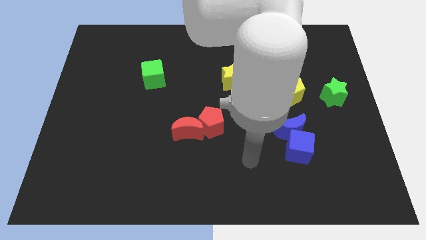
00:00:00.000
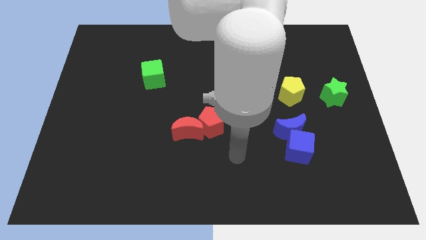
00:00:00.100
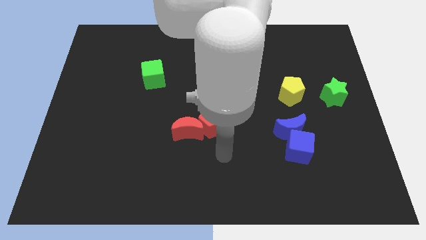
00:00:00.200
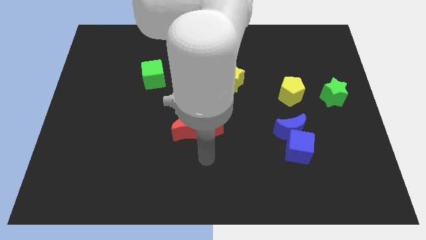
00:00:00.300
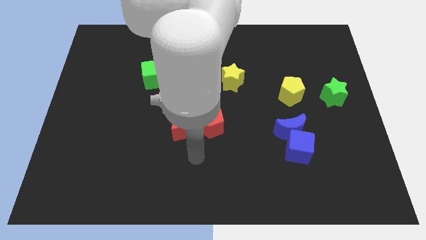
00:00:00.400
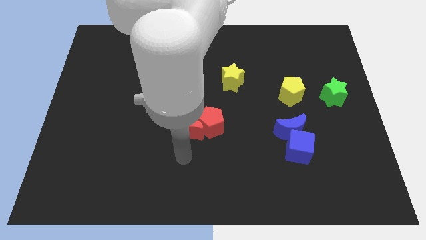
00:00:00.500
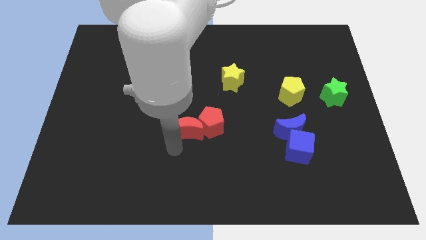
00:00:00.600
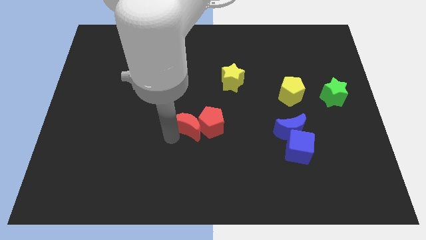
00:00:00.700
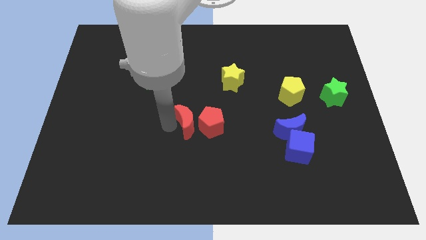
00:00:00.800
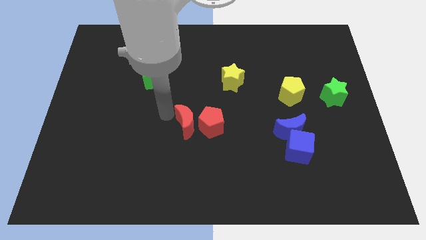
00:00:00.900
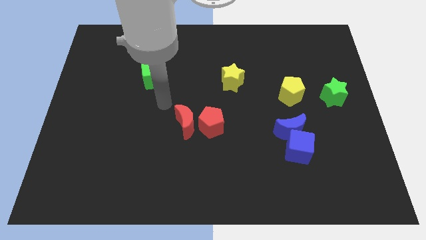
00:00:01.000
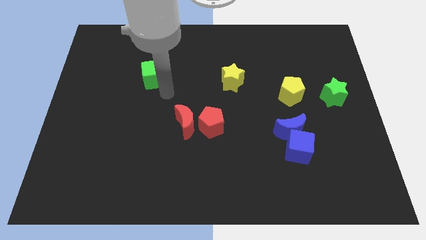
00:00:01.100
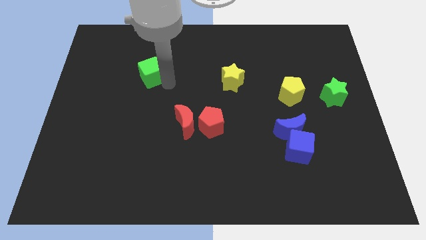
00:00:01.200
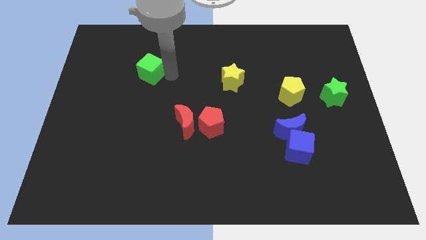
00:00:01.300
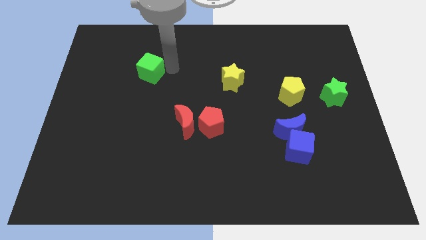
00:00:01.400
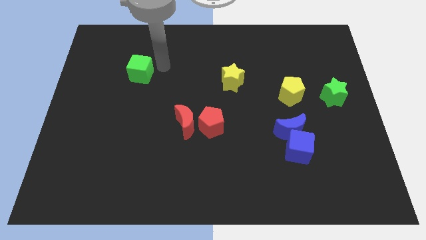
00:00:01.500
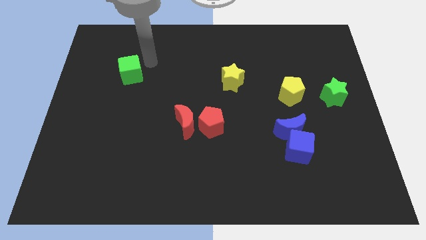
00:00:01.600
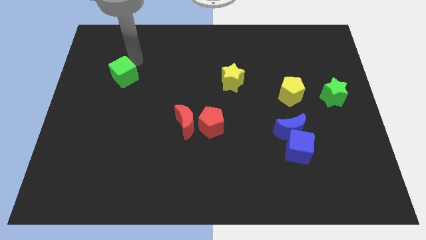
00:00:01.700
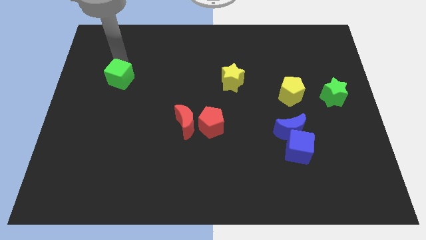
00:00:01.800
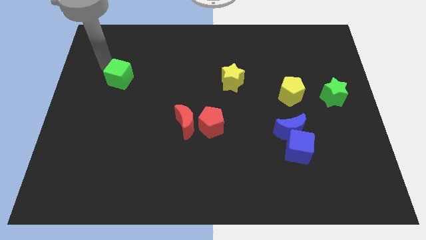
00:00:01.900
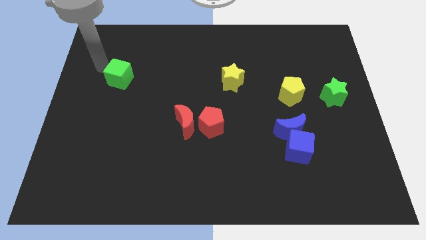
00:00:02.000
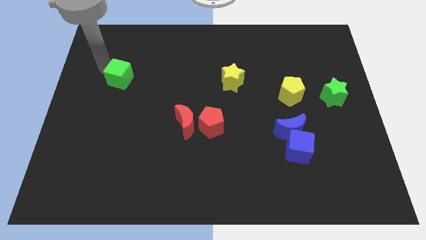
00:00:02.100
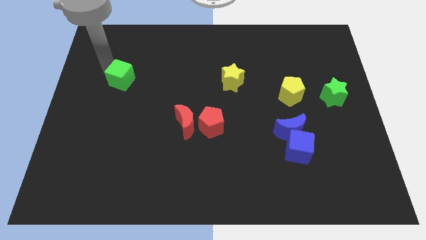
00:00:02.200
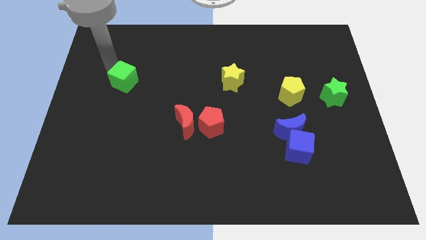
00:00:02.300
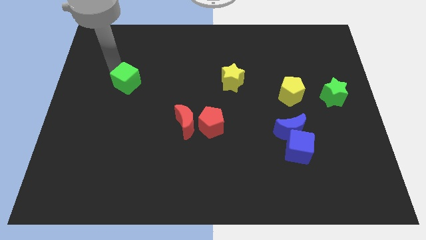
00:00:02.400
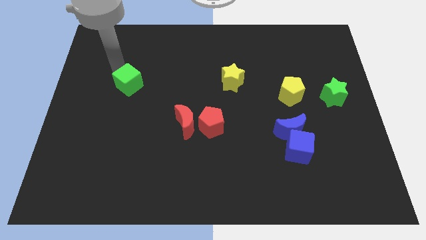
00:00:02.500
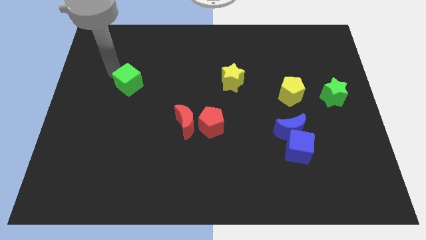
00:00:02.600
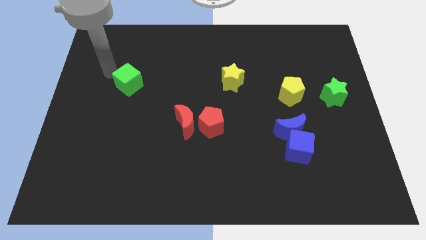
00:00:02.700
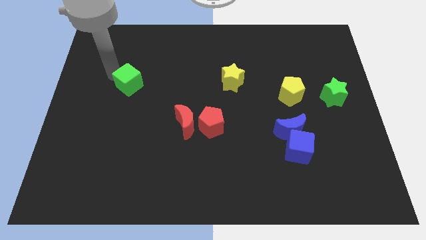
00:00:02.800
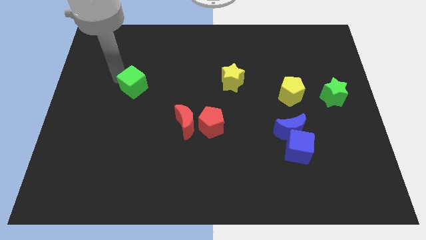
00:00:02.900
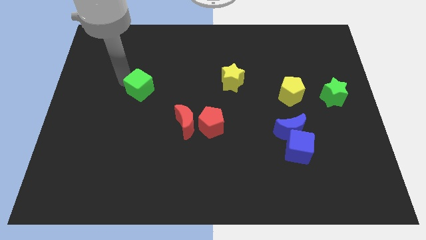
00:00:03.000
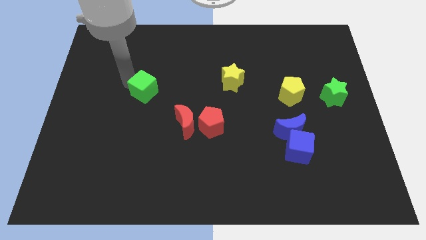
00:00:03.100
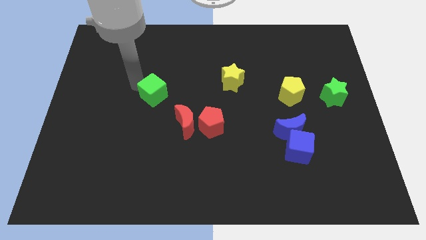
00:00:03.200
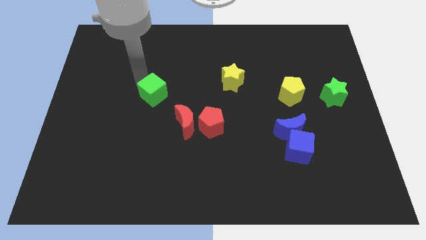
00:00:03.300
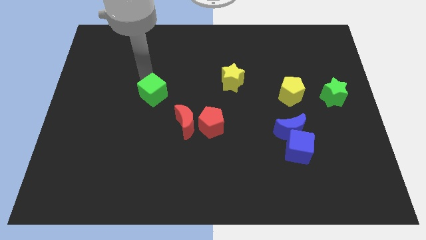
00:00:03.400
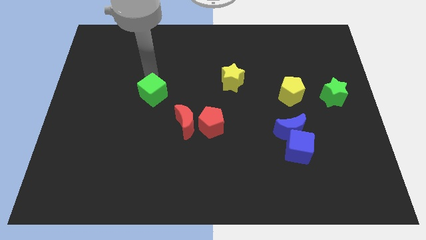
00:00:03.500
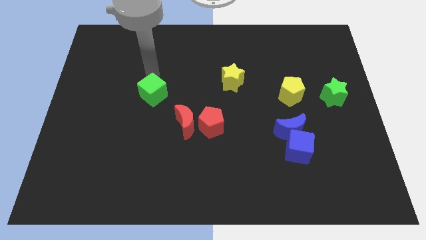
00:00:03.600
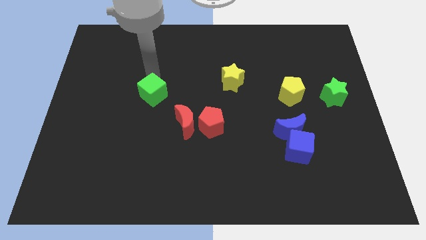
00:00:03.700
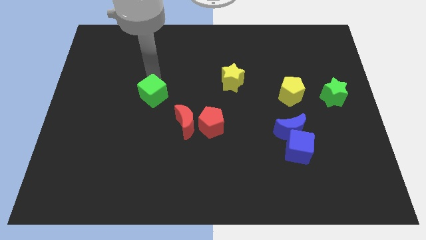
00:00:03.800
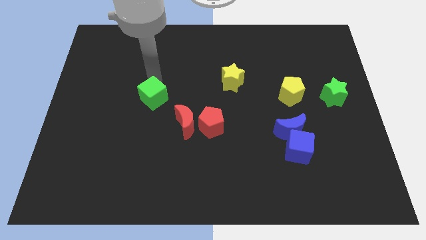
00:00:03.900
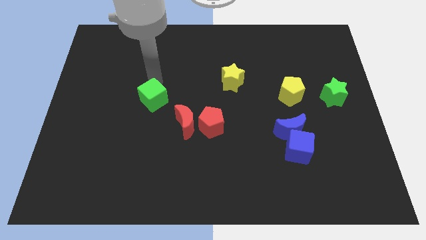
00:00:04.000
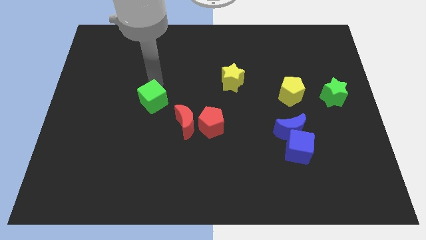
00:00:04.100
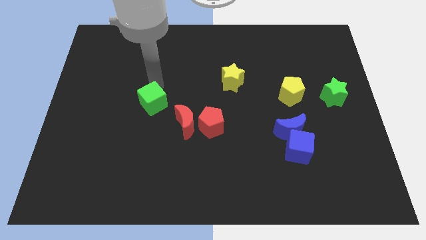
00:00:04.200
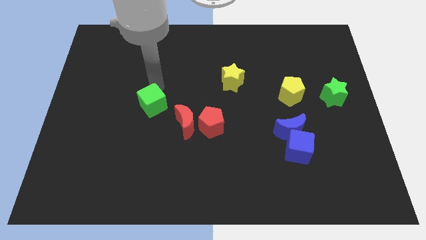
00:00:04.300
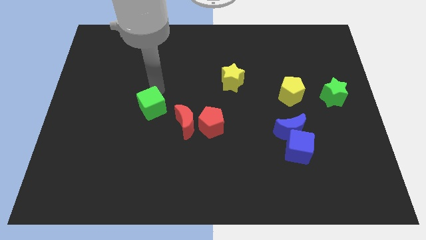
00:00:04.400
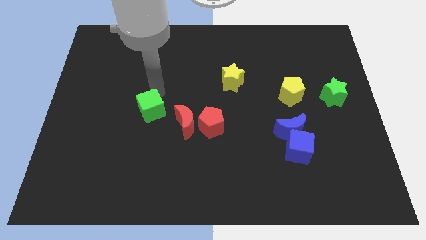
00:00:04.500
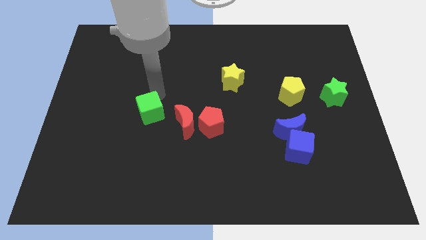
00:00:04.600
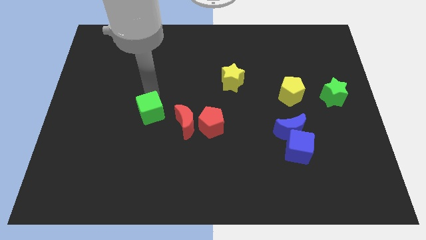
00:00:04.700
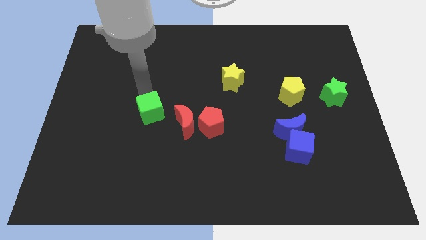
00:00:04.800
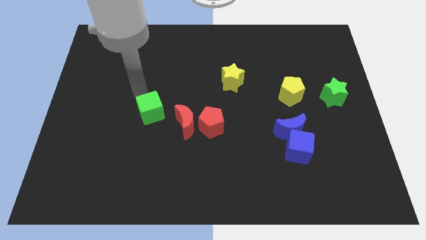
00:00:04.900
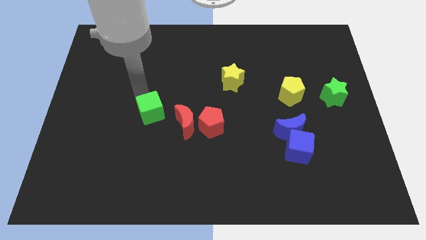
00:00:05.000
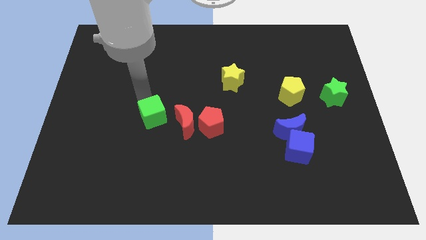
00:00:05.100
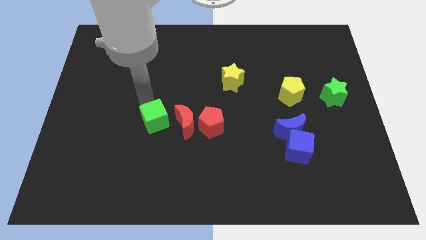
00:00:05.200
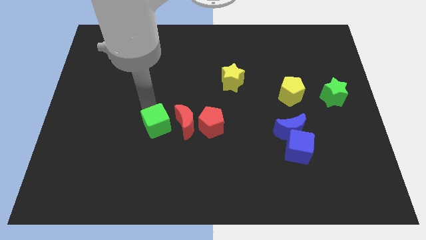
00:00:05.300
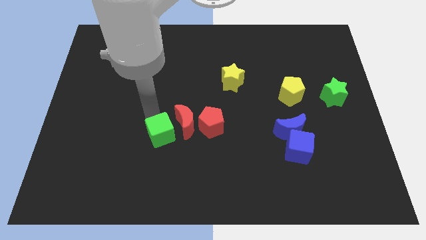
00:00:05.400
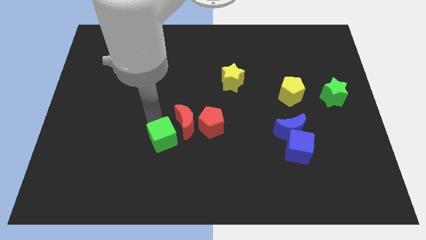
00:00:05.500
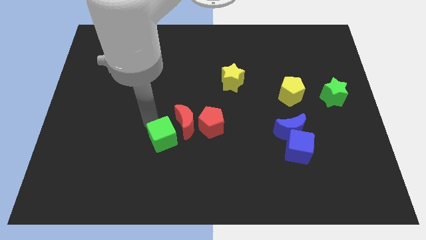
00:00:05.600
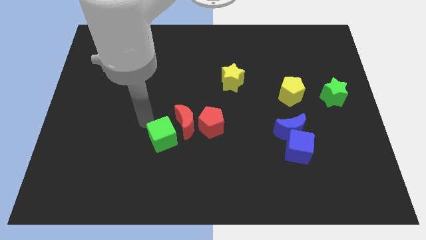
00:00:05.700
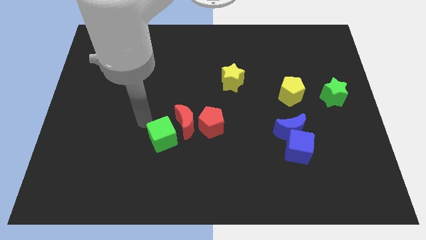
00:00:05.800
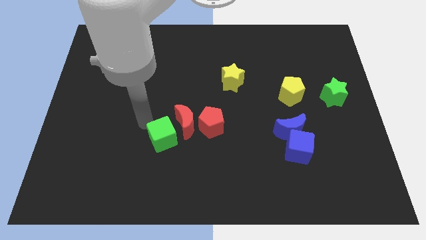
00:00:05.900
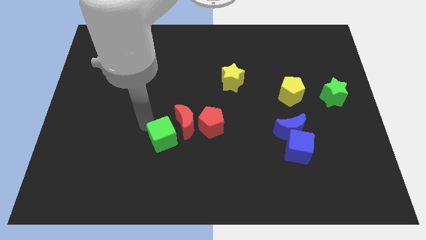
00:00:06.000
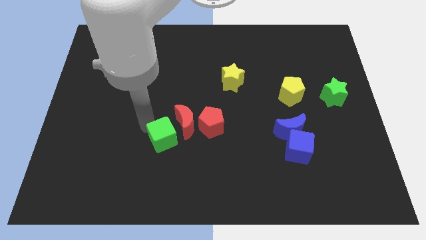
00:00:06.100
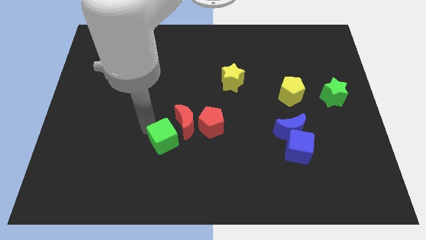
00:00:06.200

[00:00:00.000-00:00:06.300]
slide the green cube below the red moon

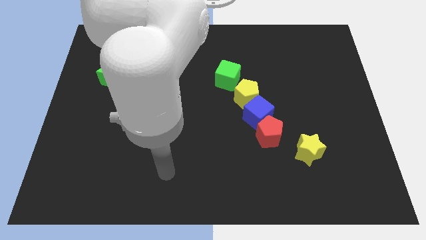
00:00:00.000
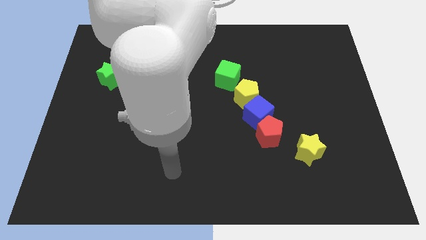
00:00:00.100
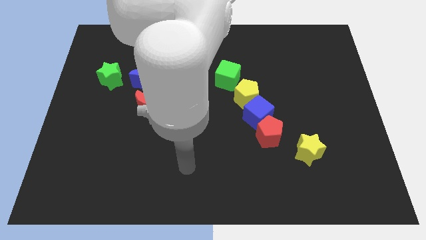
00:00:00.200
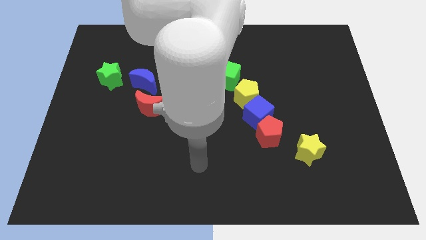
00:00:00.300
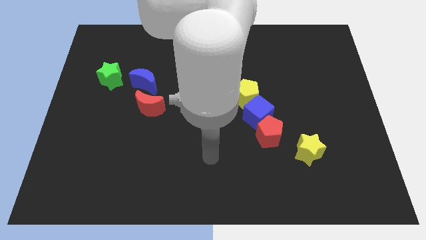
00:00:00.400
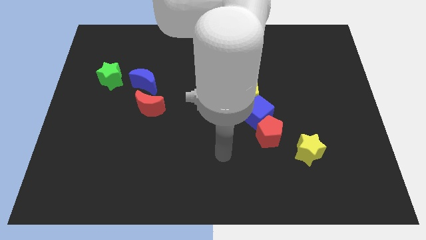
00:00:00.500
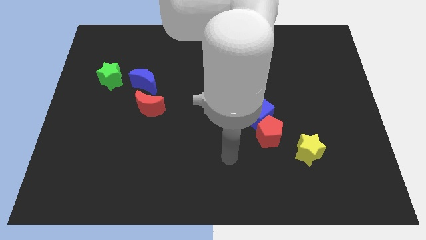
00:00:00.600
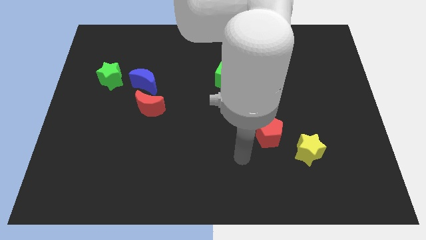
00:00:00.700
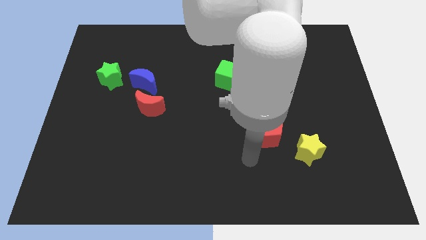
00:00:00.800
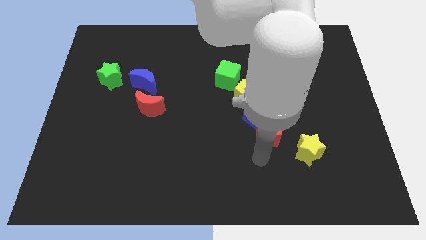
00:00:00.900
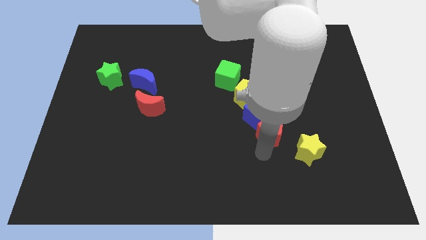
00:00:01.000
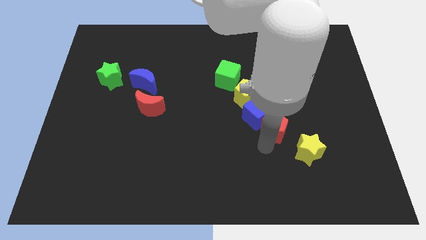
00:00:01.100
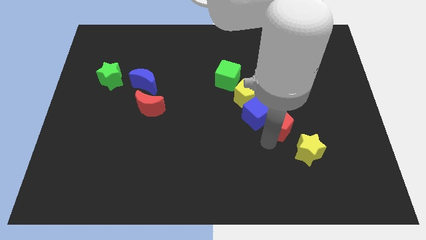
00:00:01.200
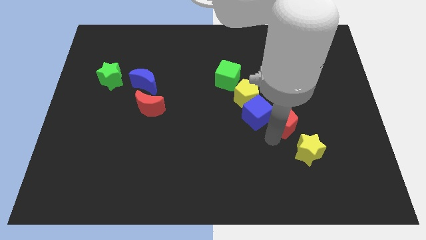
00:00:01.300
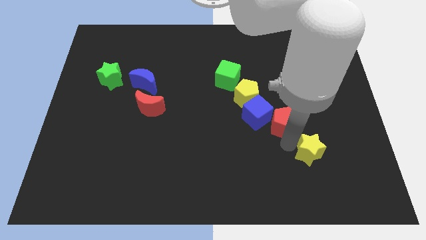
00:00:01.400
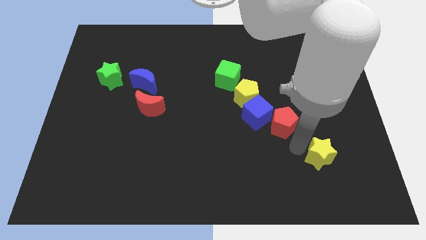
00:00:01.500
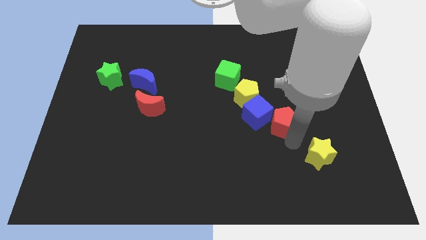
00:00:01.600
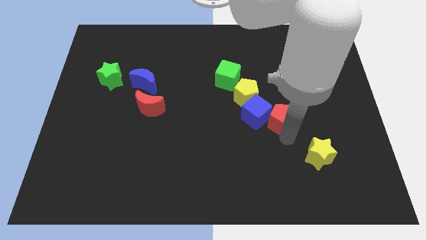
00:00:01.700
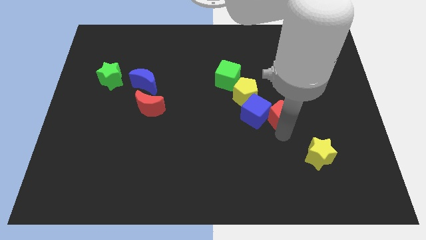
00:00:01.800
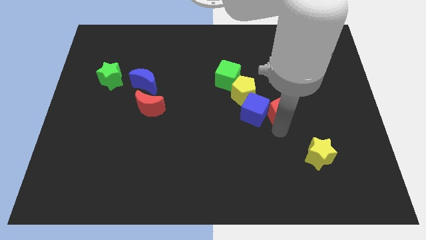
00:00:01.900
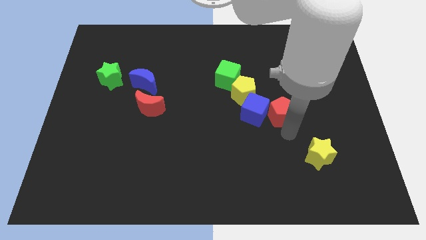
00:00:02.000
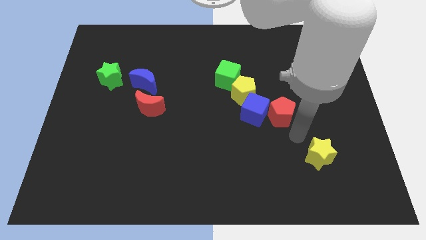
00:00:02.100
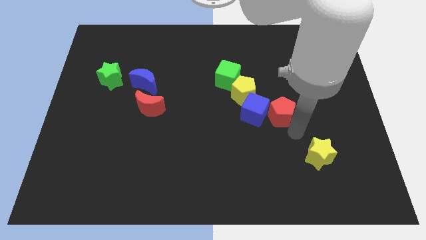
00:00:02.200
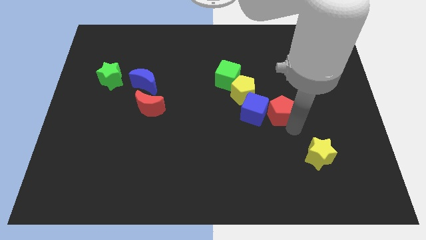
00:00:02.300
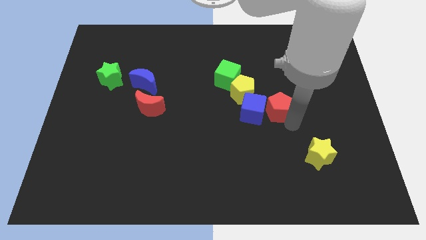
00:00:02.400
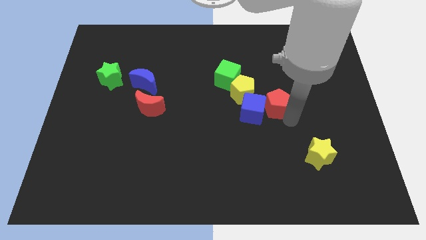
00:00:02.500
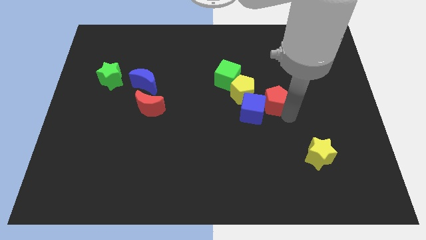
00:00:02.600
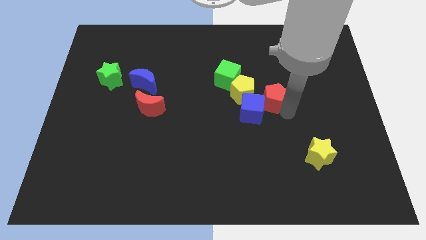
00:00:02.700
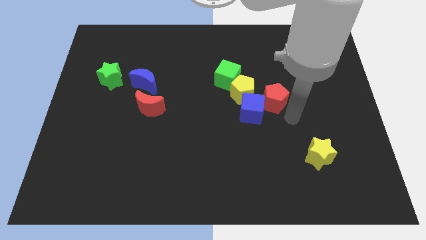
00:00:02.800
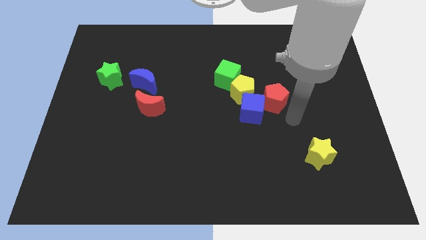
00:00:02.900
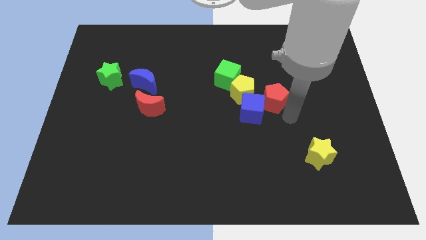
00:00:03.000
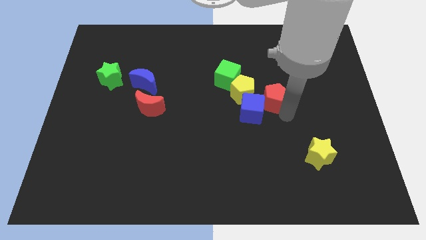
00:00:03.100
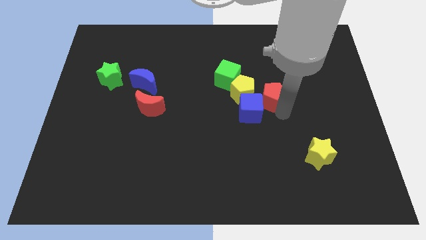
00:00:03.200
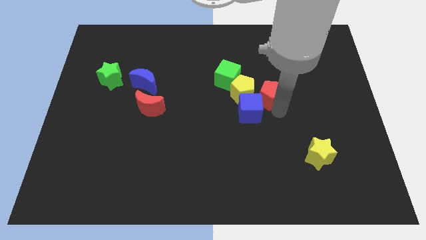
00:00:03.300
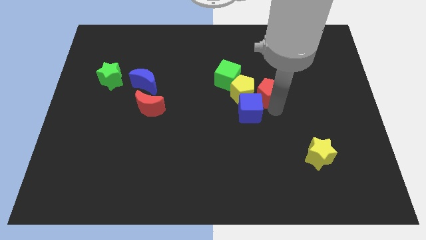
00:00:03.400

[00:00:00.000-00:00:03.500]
move the red pentagon to the top side of the blue cube
